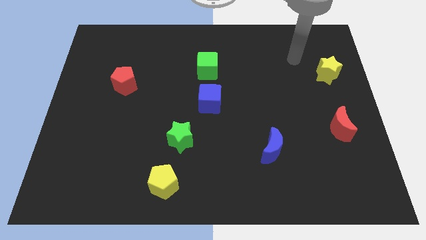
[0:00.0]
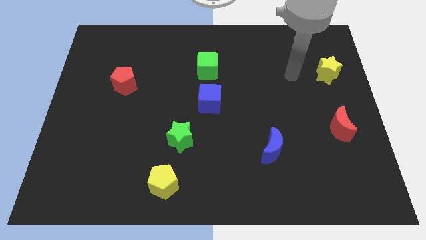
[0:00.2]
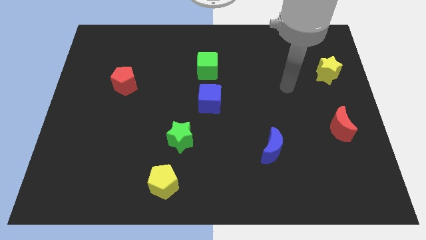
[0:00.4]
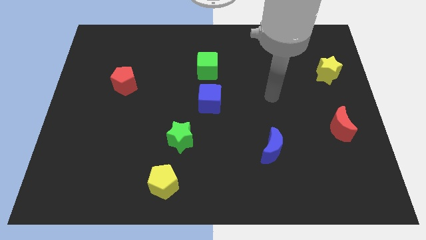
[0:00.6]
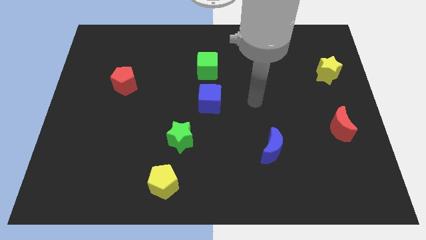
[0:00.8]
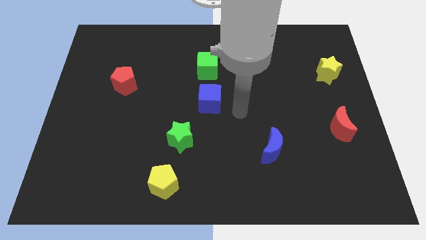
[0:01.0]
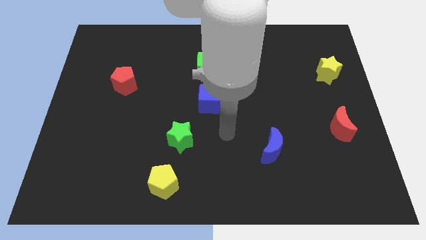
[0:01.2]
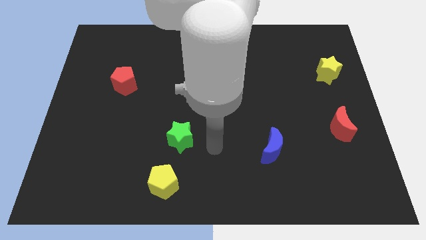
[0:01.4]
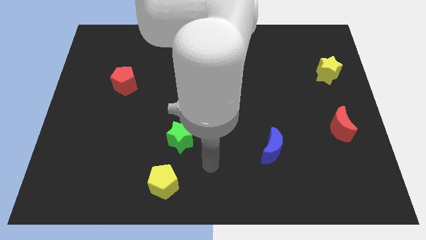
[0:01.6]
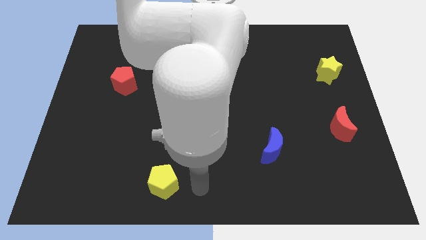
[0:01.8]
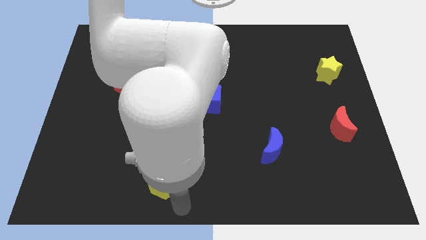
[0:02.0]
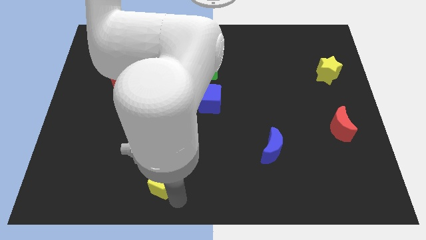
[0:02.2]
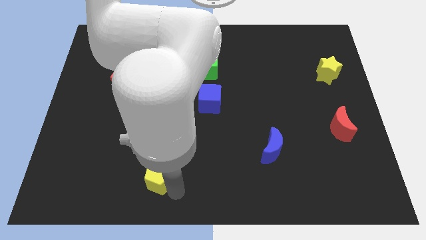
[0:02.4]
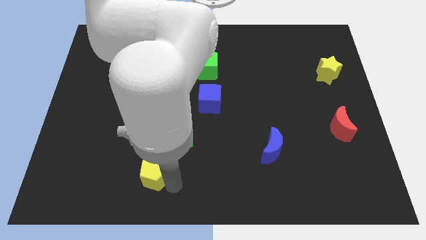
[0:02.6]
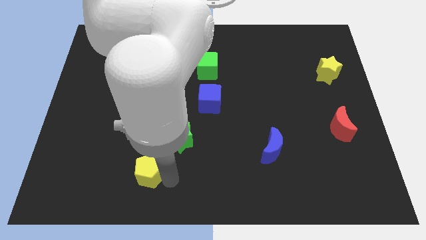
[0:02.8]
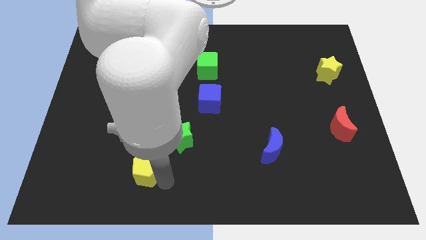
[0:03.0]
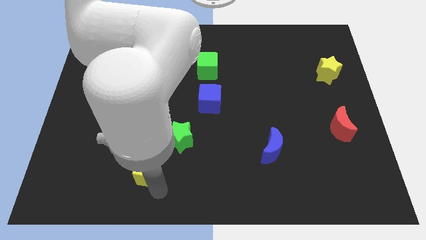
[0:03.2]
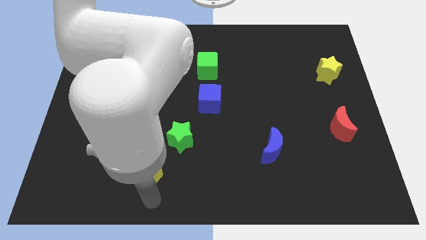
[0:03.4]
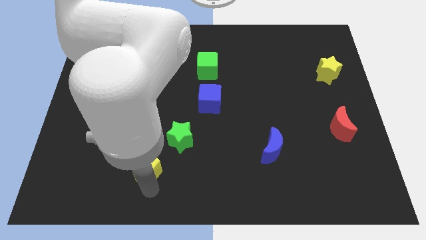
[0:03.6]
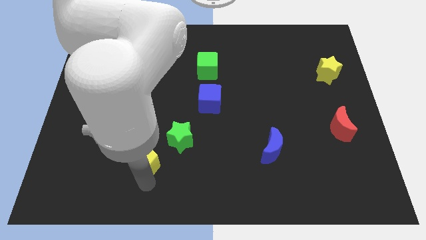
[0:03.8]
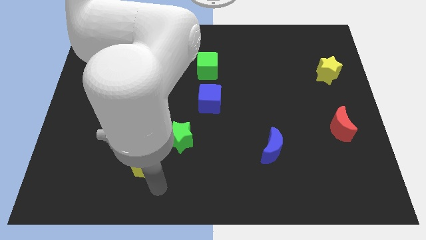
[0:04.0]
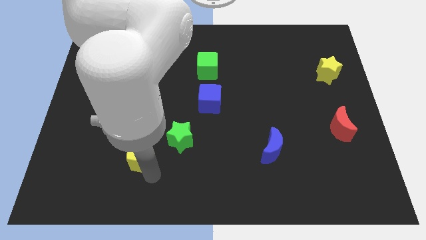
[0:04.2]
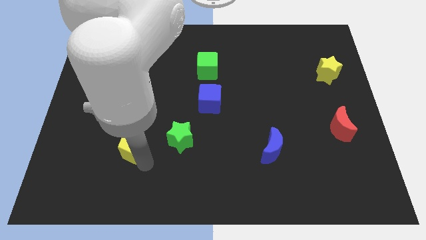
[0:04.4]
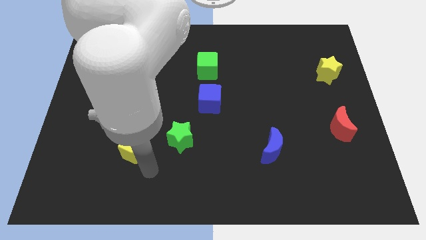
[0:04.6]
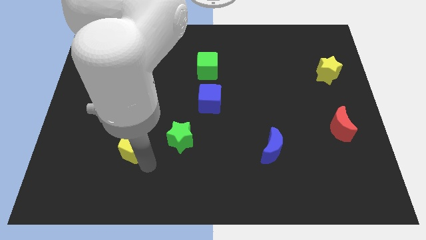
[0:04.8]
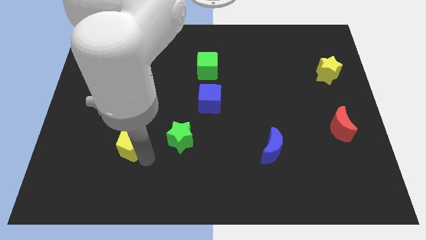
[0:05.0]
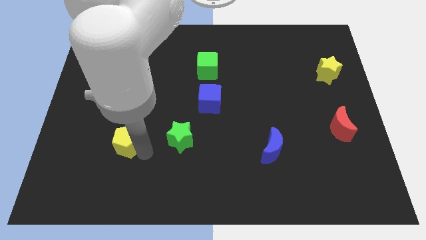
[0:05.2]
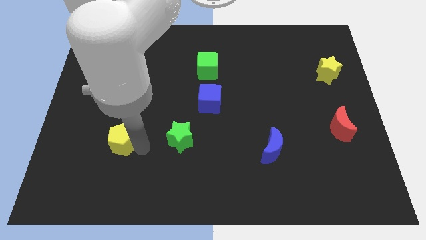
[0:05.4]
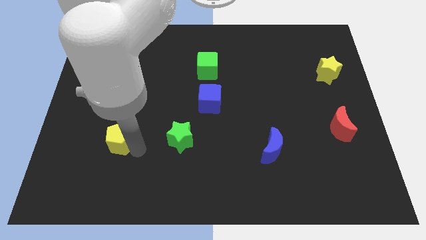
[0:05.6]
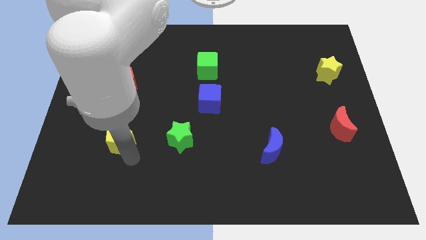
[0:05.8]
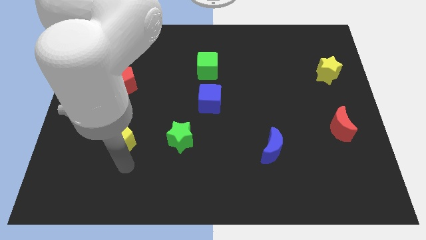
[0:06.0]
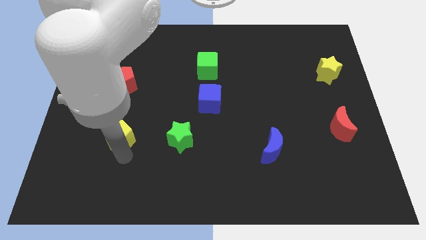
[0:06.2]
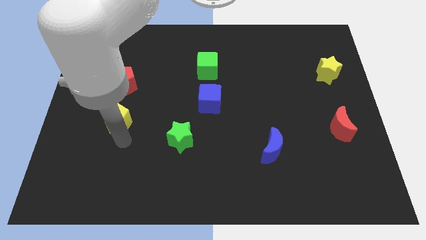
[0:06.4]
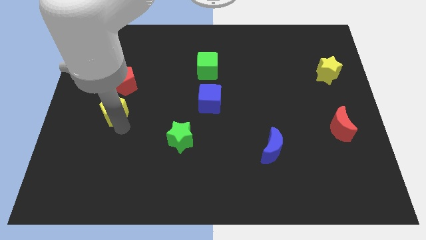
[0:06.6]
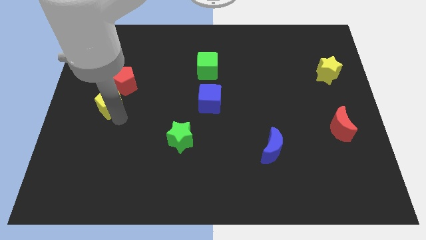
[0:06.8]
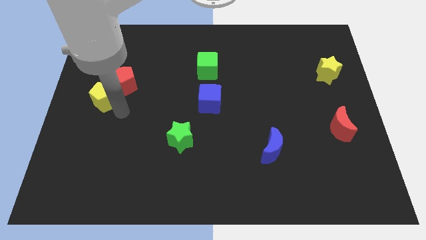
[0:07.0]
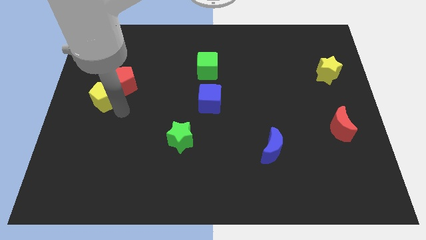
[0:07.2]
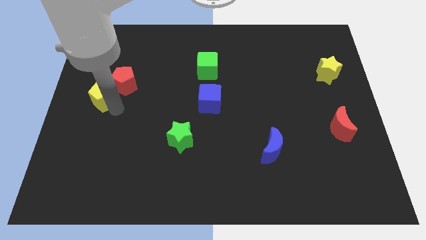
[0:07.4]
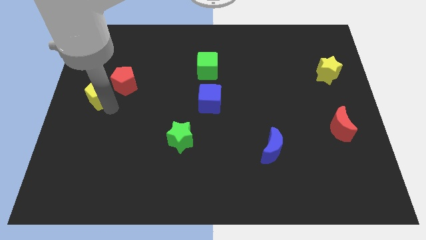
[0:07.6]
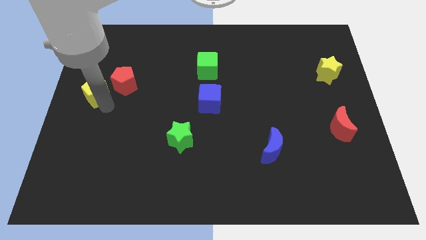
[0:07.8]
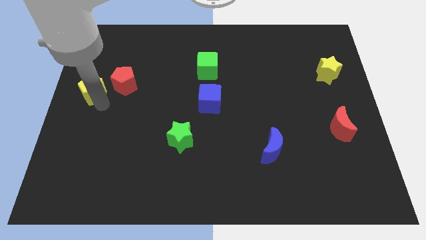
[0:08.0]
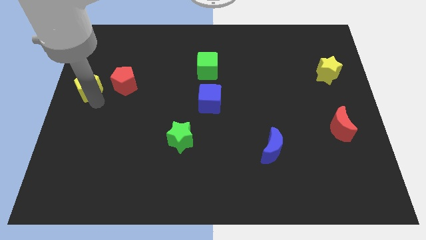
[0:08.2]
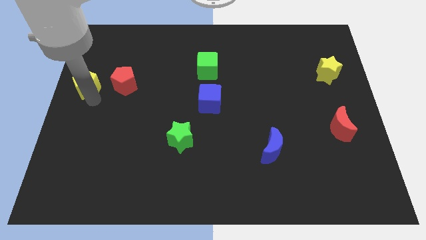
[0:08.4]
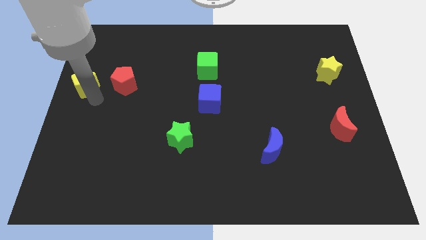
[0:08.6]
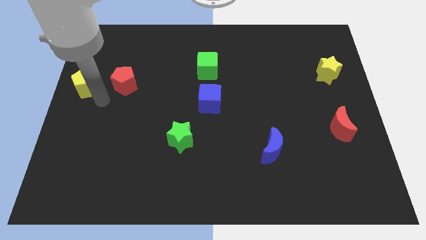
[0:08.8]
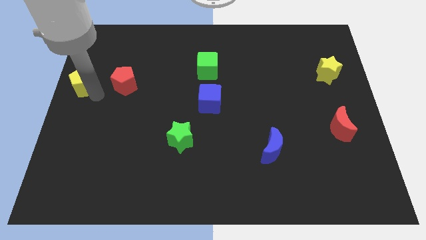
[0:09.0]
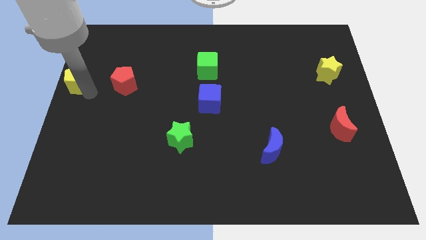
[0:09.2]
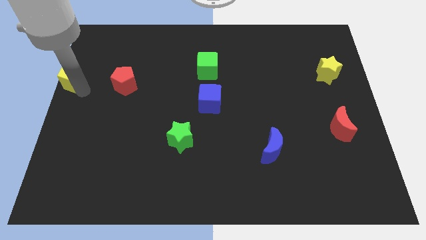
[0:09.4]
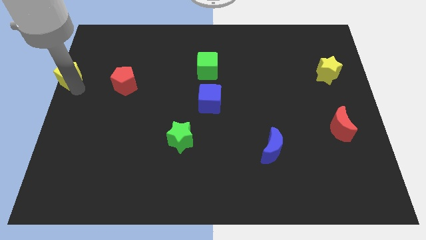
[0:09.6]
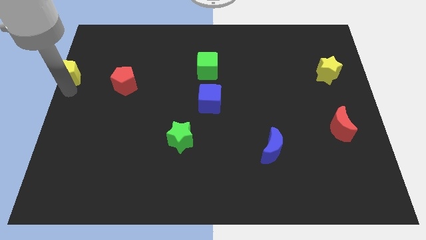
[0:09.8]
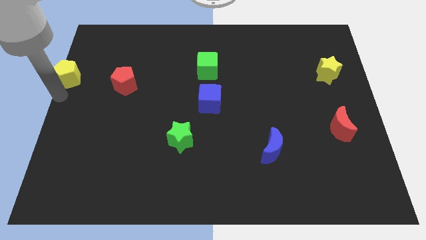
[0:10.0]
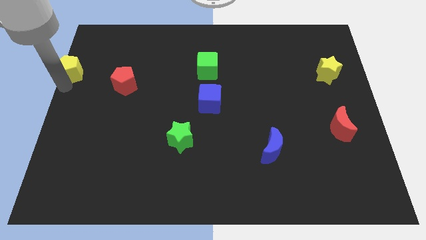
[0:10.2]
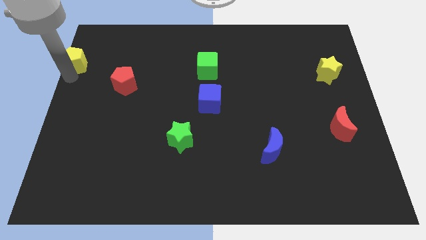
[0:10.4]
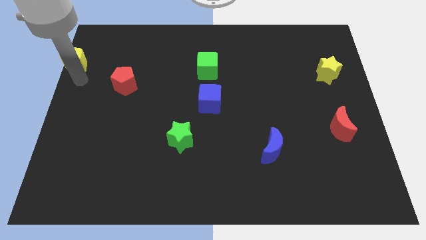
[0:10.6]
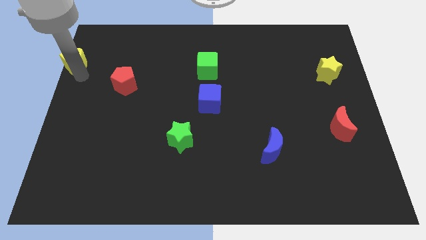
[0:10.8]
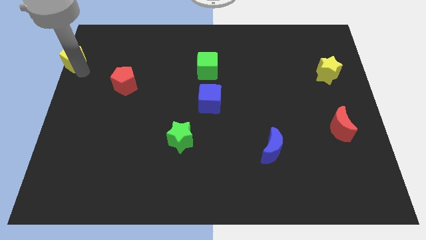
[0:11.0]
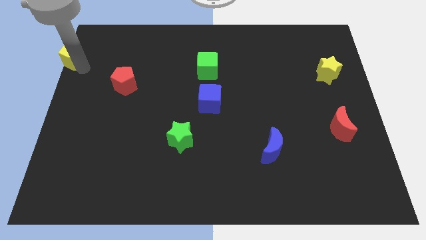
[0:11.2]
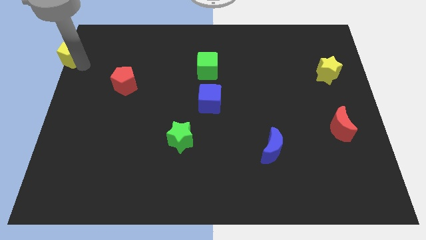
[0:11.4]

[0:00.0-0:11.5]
slide the yellow pentagon to the top left corner

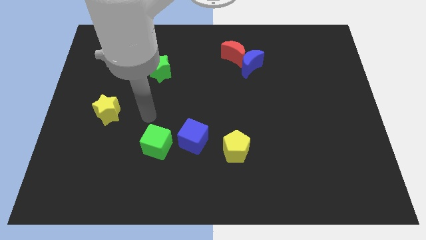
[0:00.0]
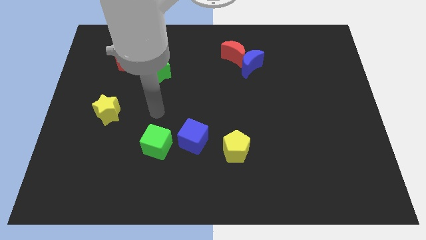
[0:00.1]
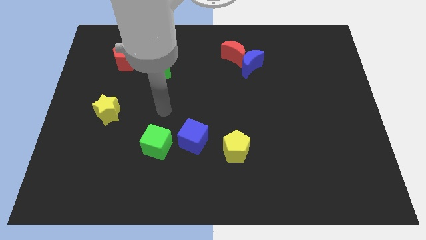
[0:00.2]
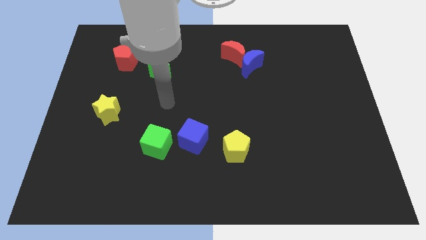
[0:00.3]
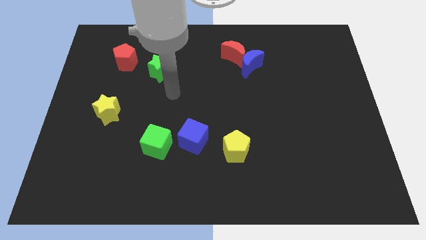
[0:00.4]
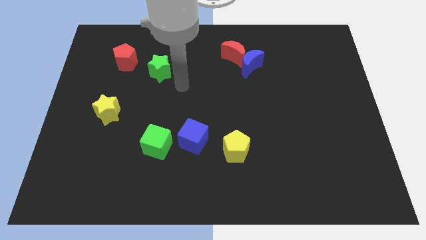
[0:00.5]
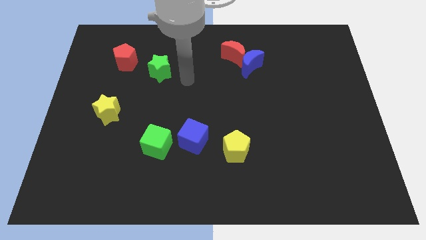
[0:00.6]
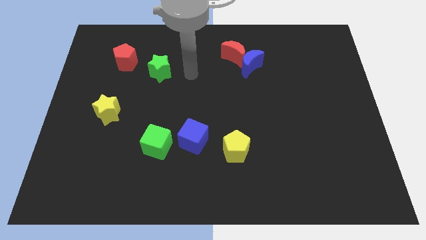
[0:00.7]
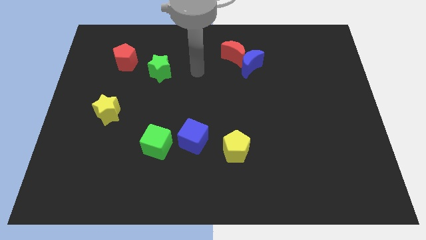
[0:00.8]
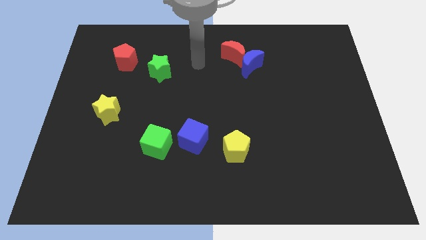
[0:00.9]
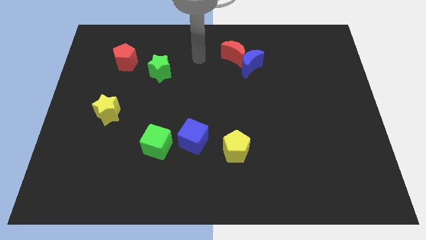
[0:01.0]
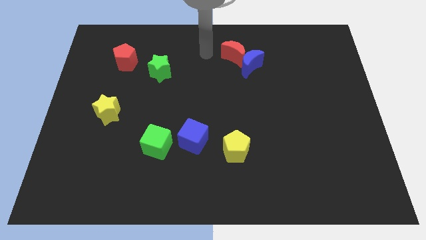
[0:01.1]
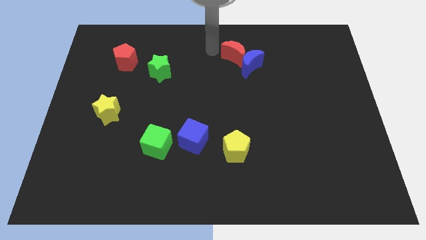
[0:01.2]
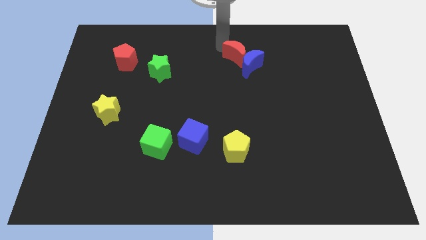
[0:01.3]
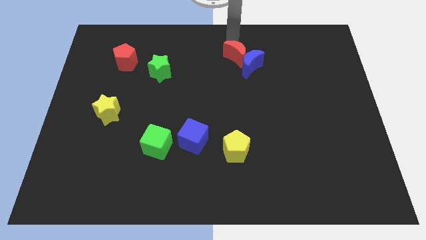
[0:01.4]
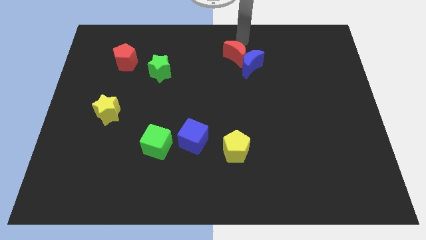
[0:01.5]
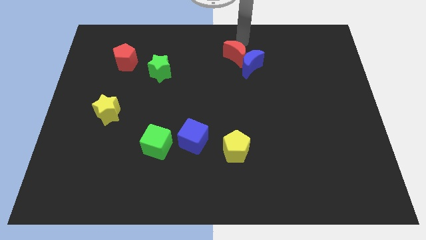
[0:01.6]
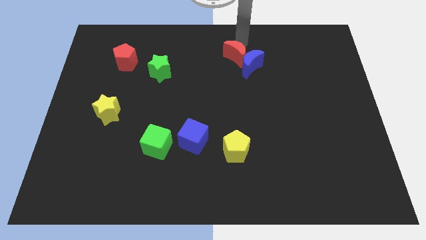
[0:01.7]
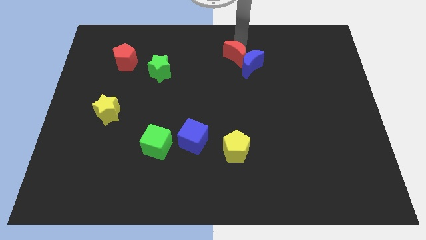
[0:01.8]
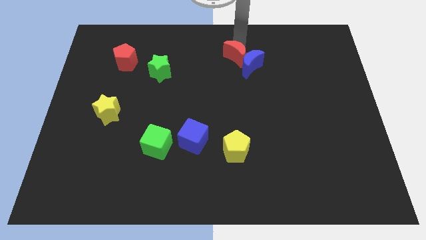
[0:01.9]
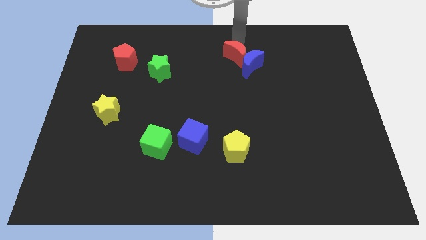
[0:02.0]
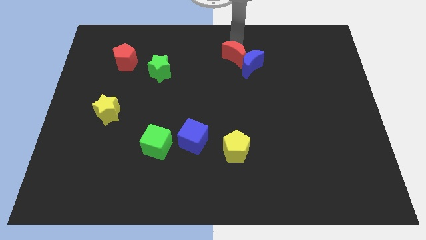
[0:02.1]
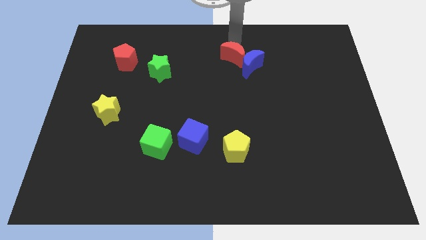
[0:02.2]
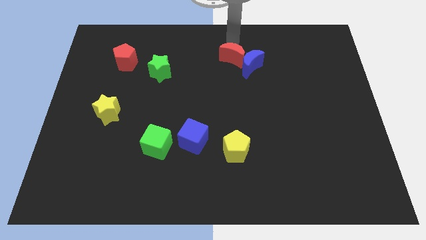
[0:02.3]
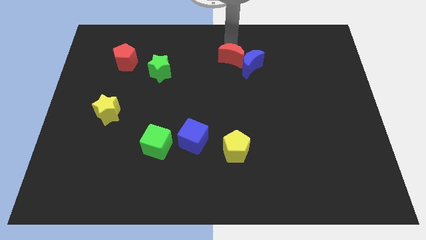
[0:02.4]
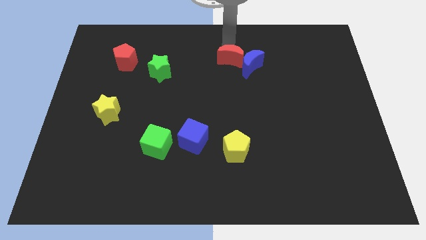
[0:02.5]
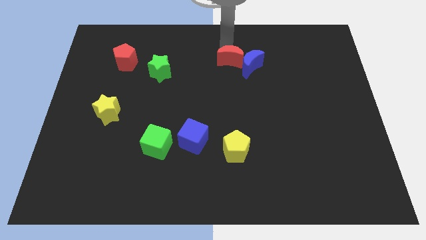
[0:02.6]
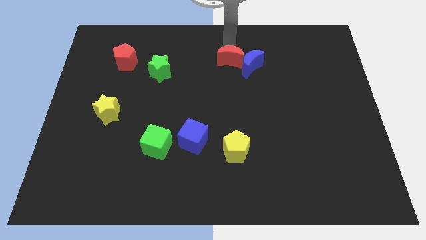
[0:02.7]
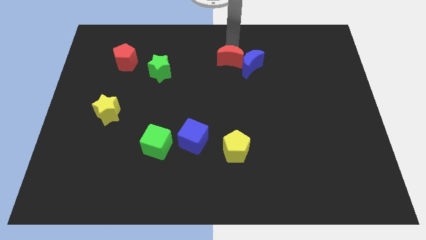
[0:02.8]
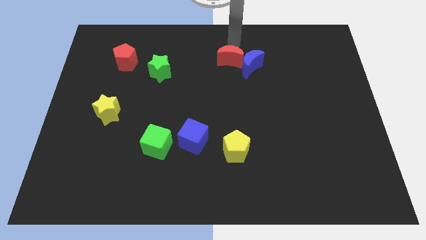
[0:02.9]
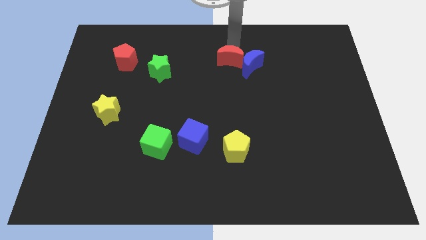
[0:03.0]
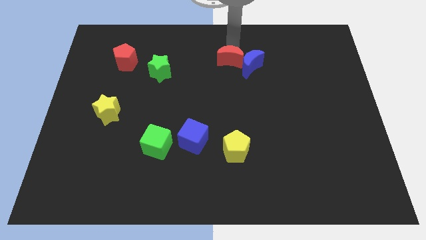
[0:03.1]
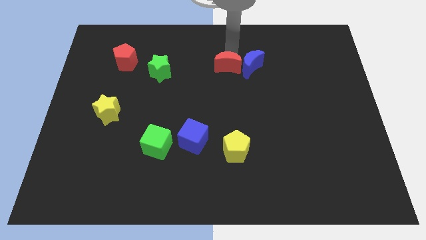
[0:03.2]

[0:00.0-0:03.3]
push the red moon to the middle
